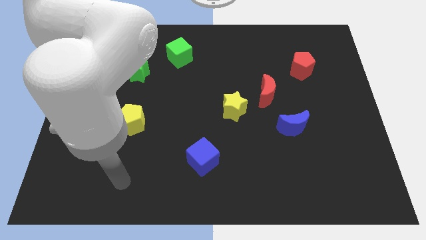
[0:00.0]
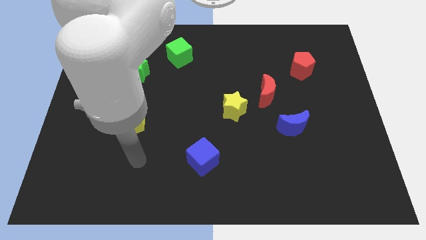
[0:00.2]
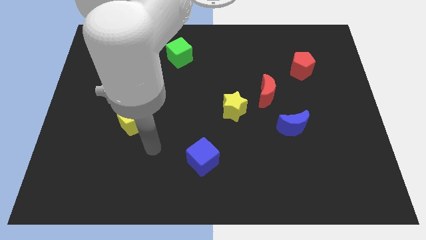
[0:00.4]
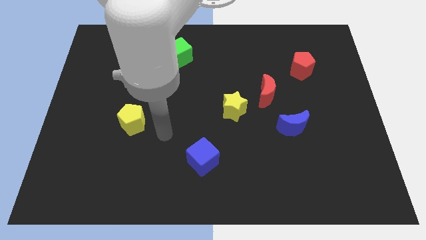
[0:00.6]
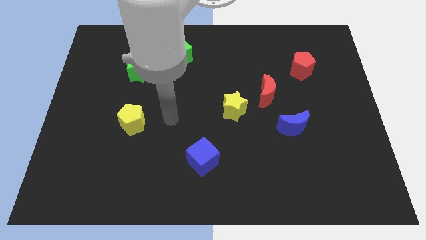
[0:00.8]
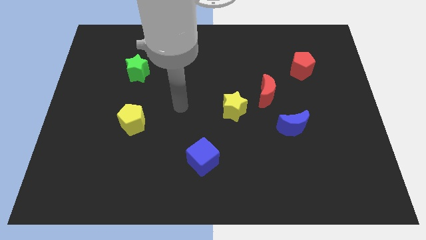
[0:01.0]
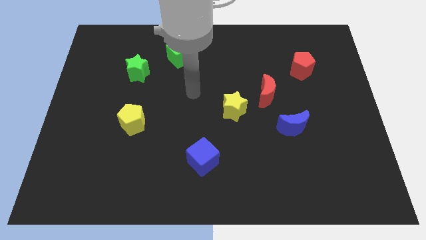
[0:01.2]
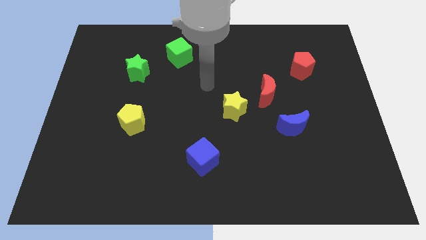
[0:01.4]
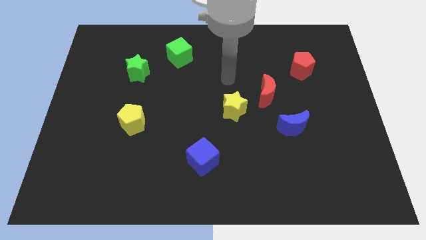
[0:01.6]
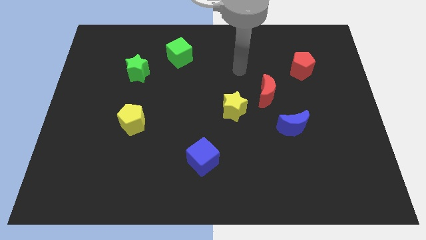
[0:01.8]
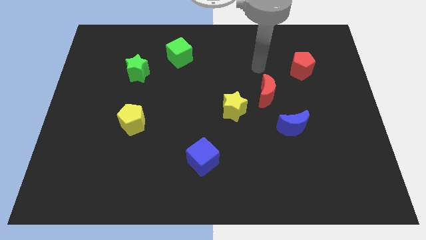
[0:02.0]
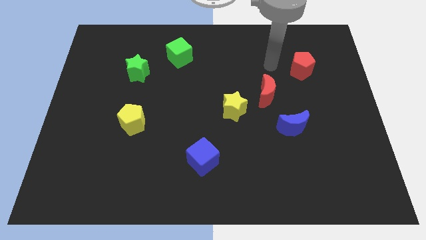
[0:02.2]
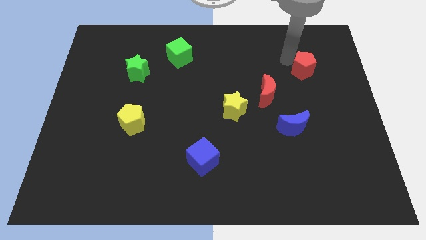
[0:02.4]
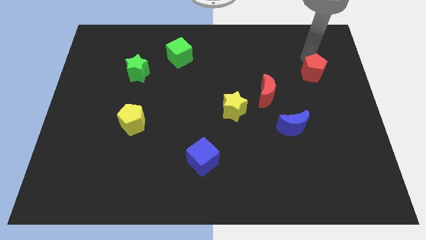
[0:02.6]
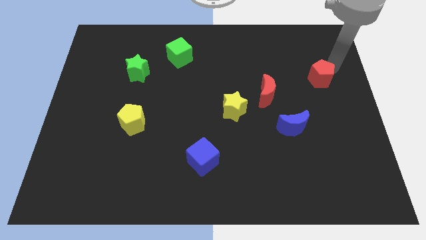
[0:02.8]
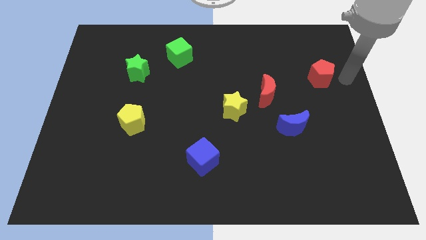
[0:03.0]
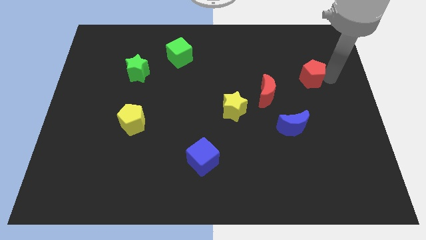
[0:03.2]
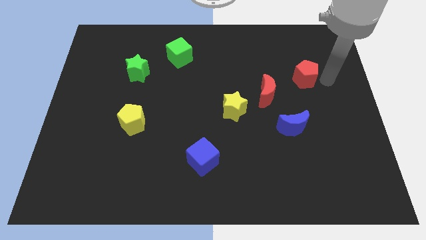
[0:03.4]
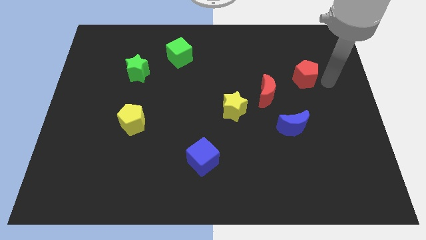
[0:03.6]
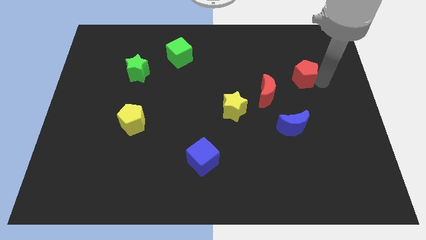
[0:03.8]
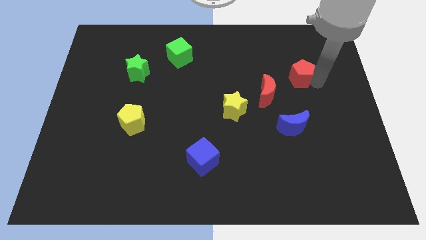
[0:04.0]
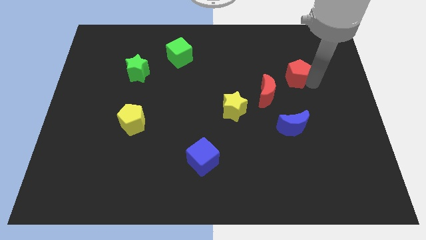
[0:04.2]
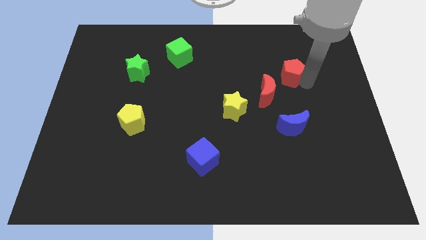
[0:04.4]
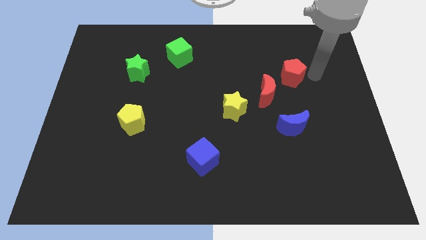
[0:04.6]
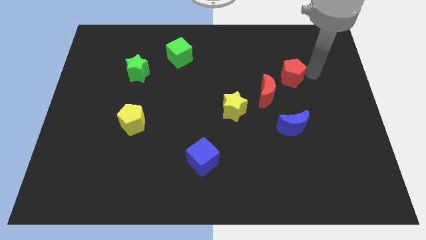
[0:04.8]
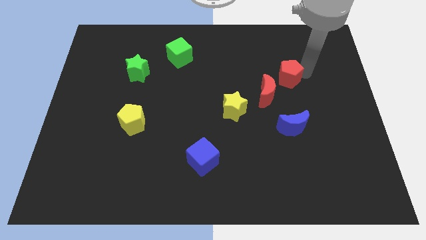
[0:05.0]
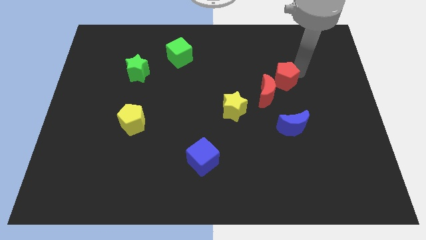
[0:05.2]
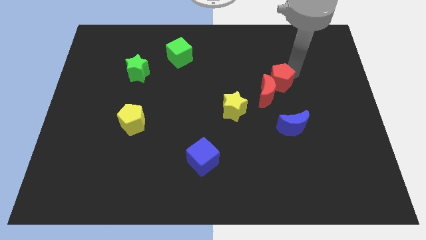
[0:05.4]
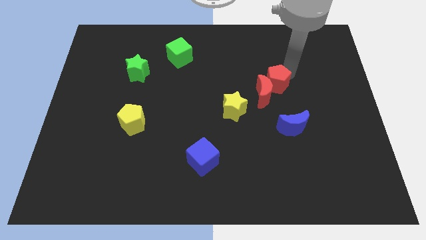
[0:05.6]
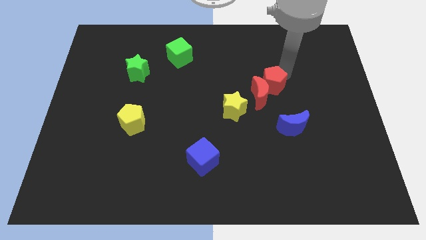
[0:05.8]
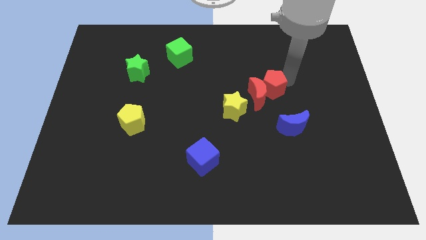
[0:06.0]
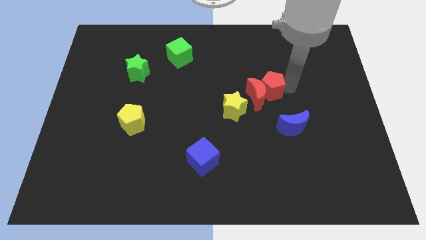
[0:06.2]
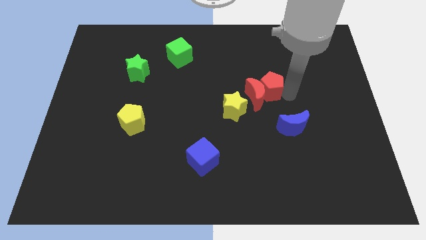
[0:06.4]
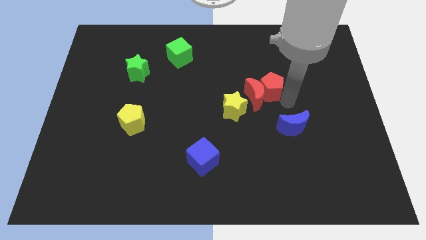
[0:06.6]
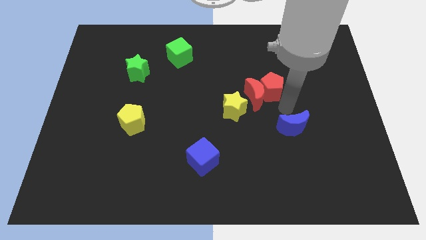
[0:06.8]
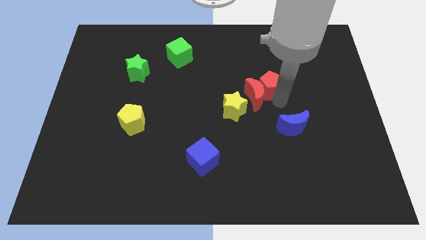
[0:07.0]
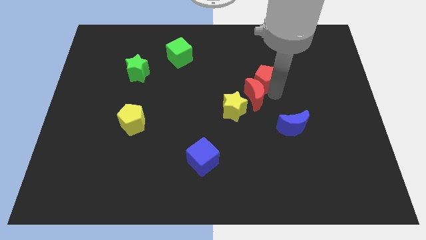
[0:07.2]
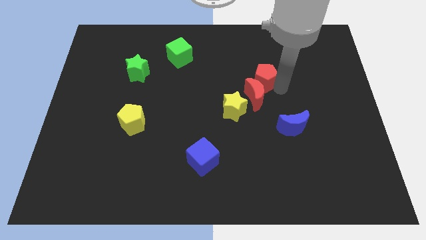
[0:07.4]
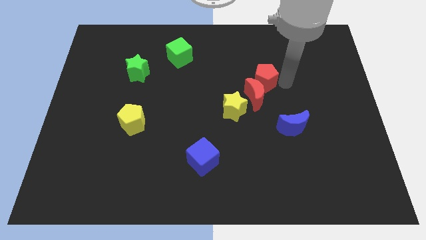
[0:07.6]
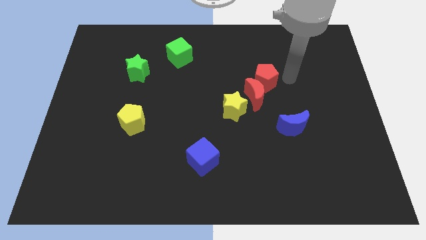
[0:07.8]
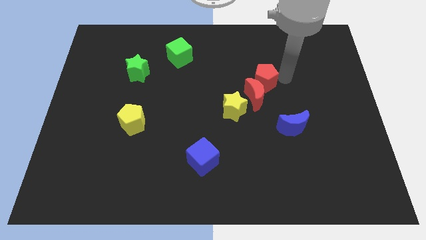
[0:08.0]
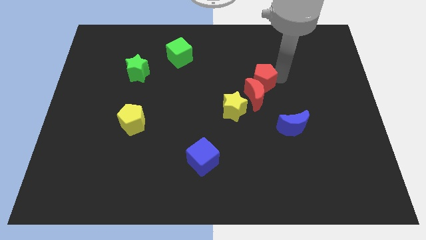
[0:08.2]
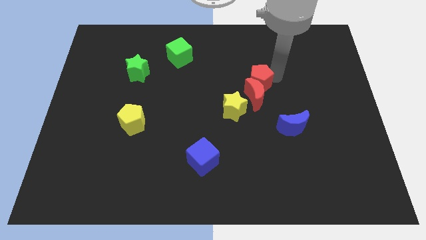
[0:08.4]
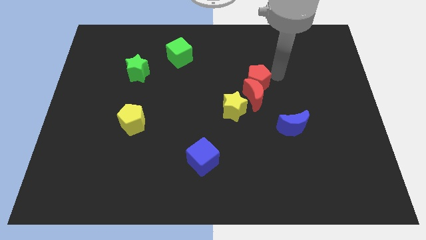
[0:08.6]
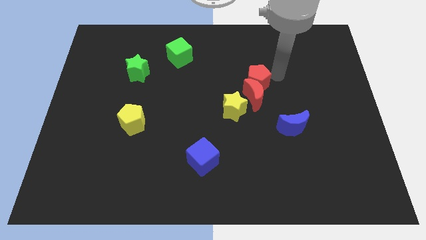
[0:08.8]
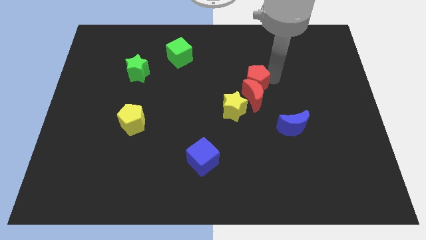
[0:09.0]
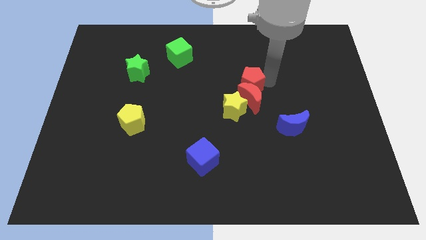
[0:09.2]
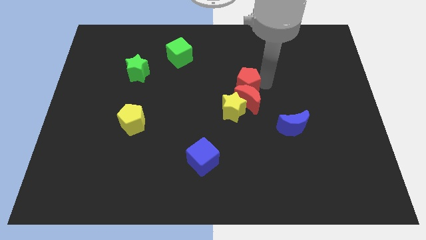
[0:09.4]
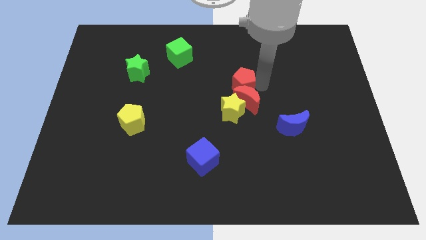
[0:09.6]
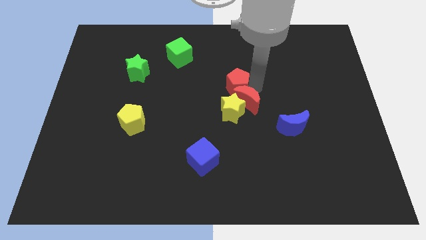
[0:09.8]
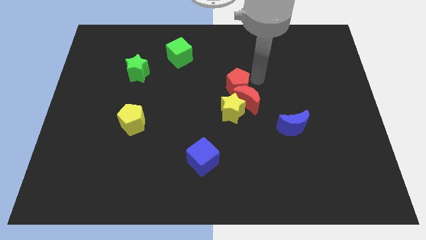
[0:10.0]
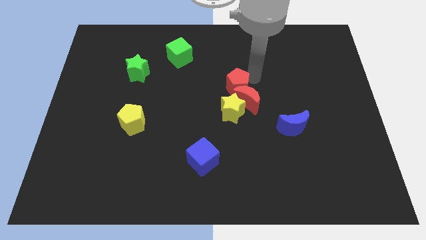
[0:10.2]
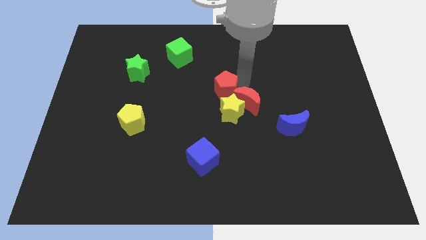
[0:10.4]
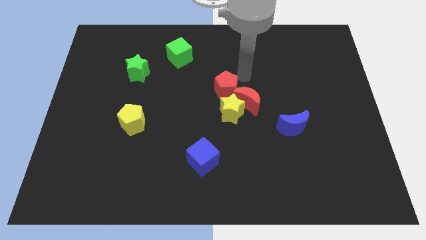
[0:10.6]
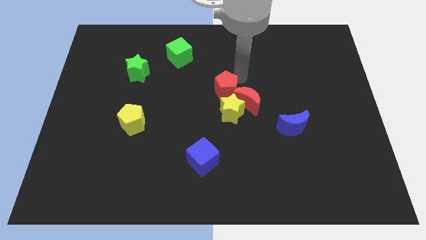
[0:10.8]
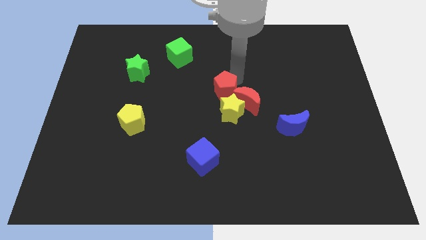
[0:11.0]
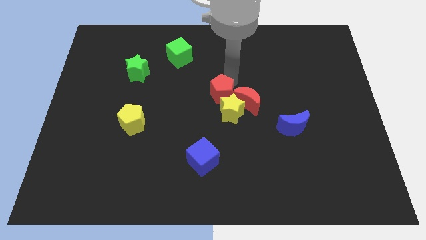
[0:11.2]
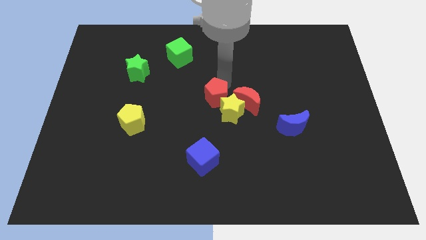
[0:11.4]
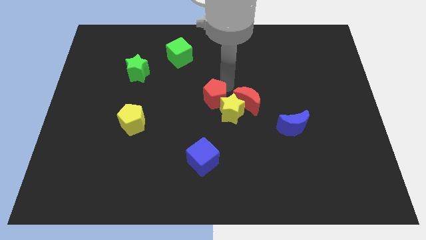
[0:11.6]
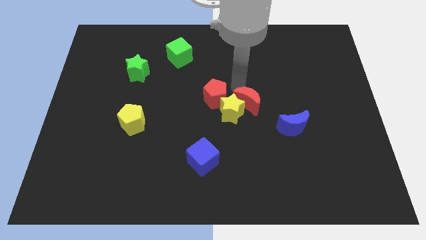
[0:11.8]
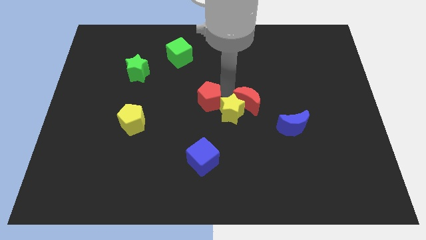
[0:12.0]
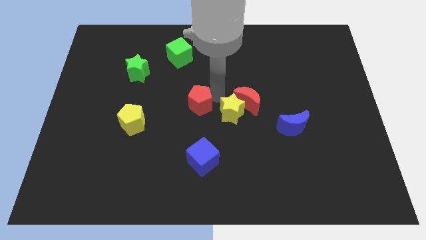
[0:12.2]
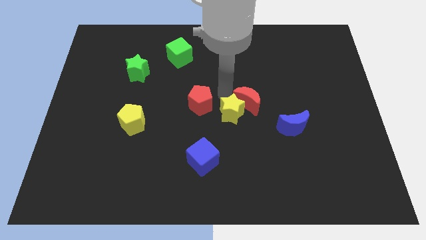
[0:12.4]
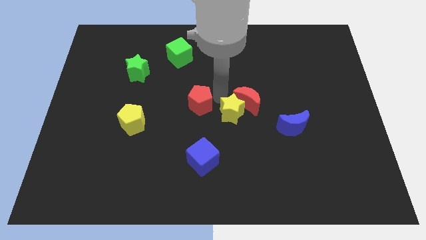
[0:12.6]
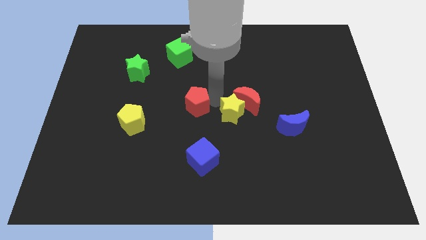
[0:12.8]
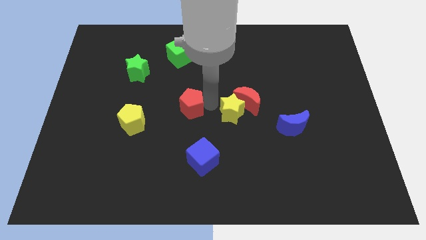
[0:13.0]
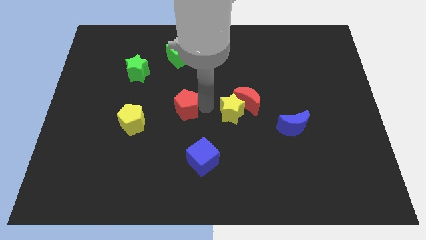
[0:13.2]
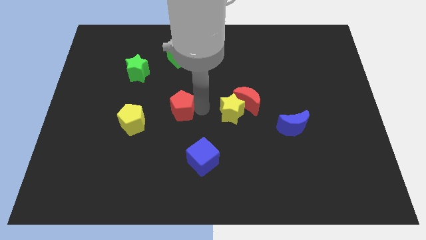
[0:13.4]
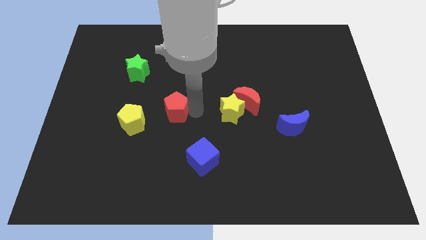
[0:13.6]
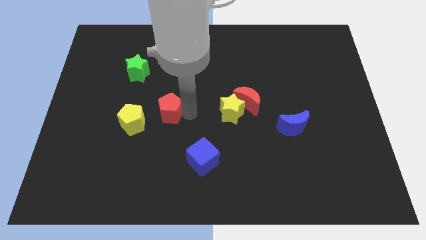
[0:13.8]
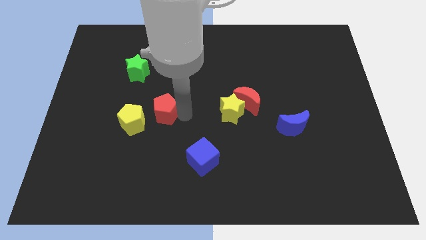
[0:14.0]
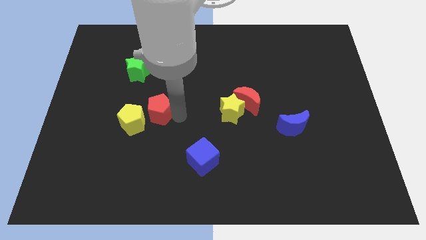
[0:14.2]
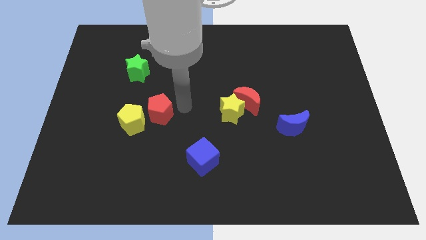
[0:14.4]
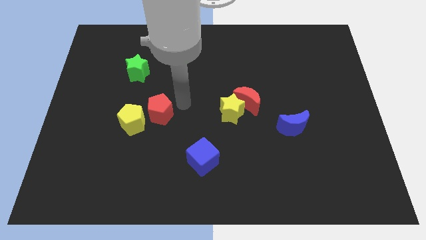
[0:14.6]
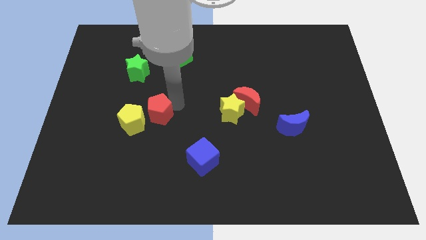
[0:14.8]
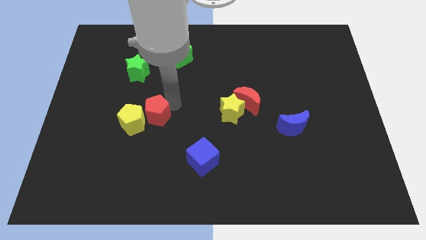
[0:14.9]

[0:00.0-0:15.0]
slide the red pentagon to the yellow pentagon
